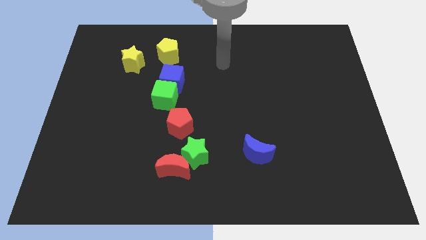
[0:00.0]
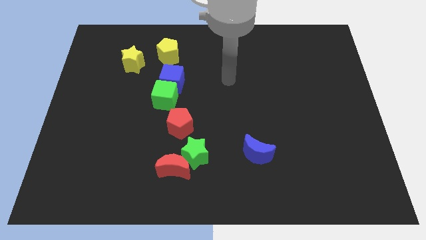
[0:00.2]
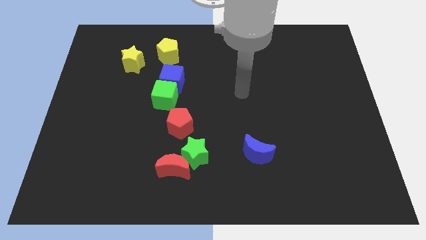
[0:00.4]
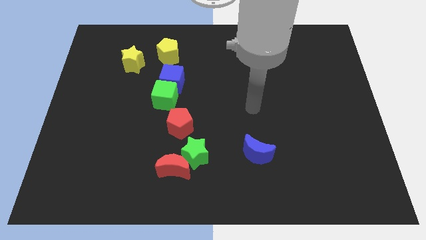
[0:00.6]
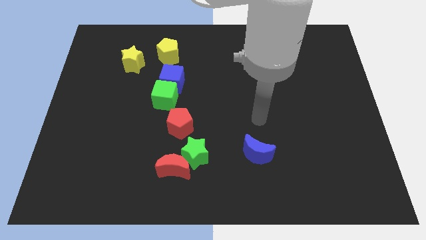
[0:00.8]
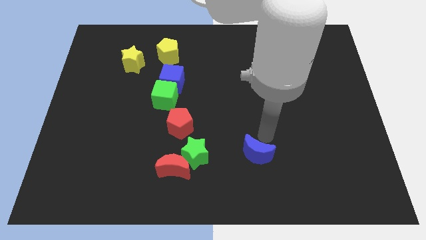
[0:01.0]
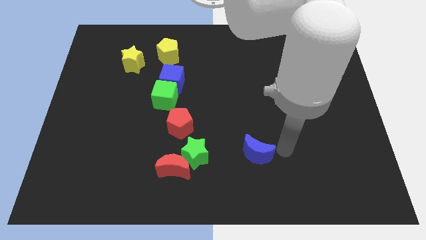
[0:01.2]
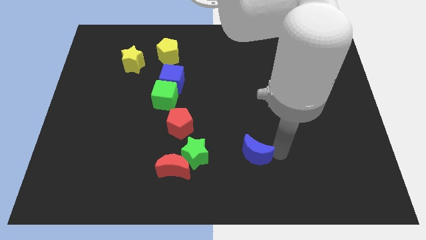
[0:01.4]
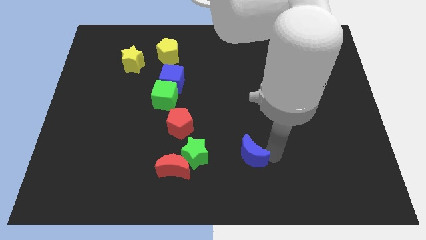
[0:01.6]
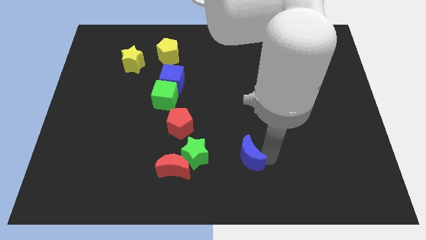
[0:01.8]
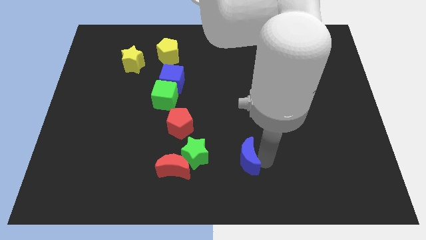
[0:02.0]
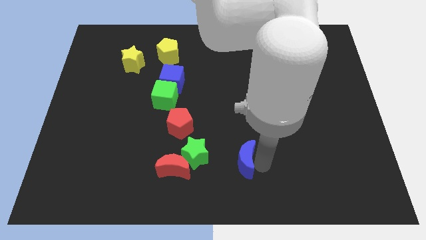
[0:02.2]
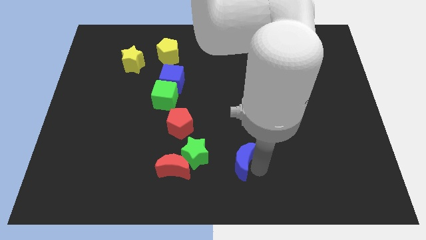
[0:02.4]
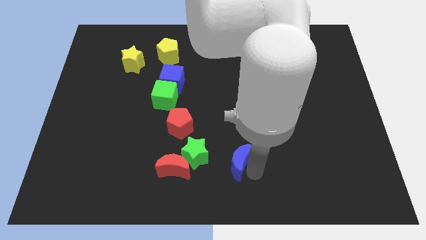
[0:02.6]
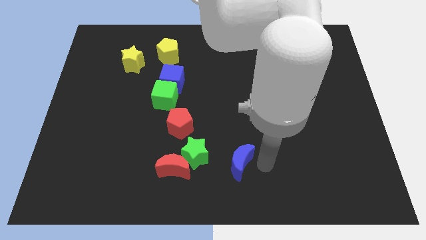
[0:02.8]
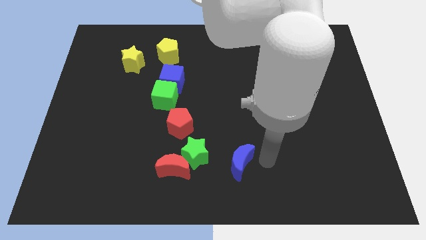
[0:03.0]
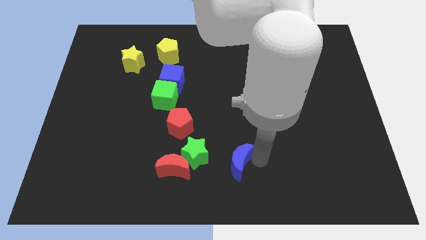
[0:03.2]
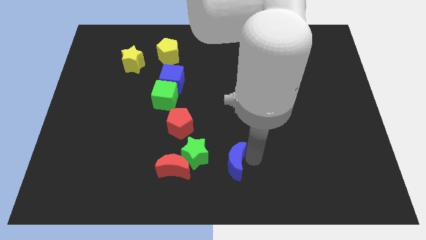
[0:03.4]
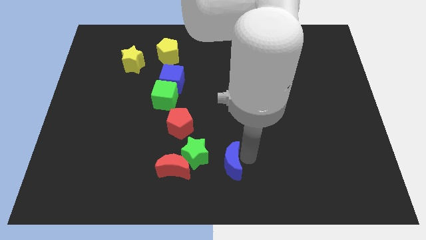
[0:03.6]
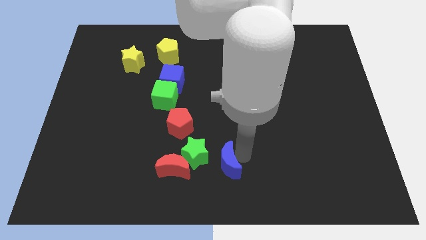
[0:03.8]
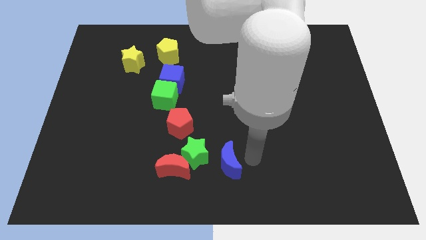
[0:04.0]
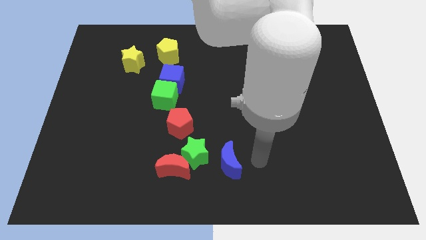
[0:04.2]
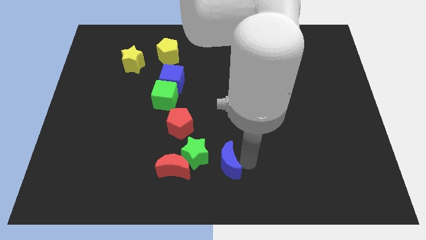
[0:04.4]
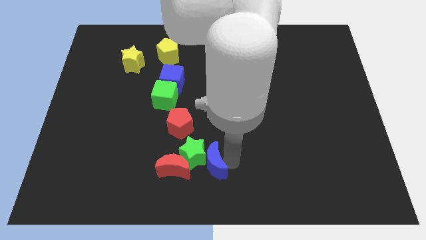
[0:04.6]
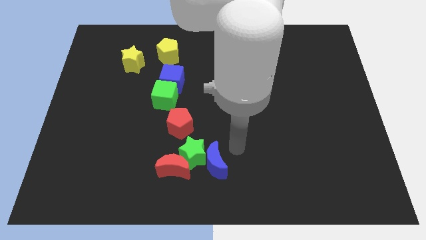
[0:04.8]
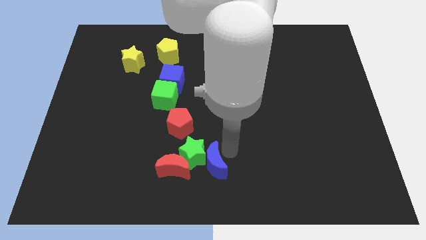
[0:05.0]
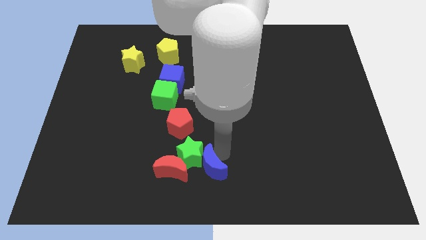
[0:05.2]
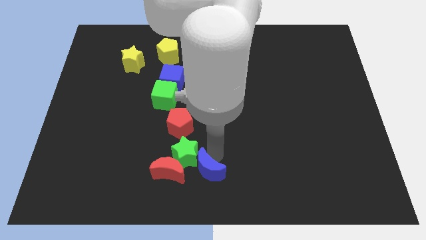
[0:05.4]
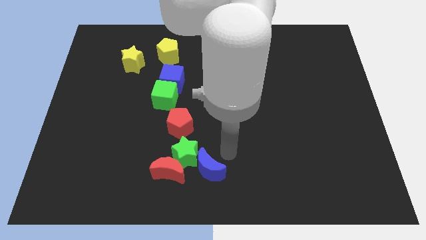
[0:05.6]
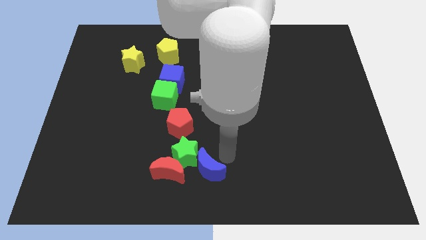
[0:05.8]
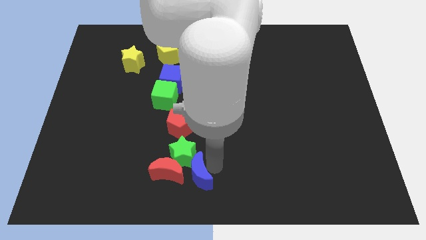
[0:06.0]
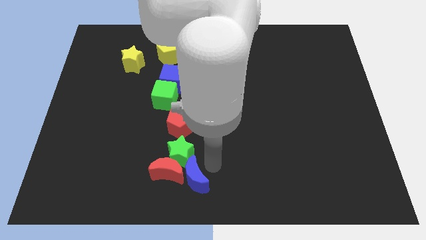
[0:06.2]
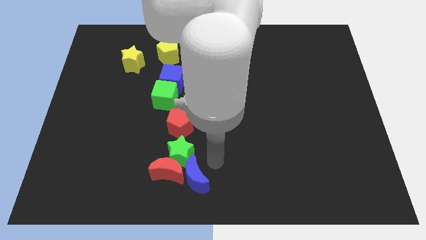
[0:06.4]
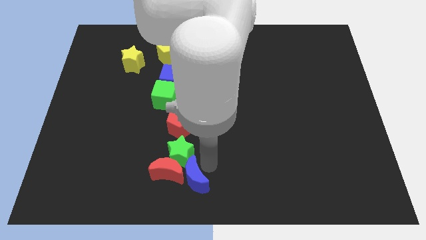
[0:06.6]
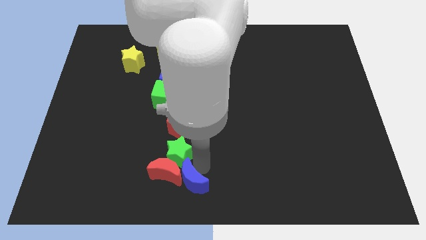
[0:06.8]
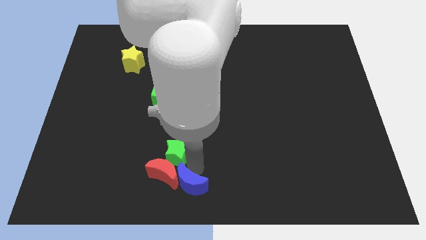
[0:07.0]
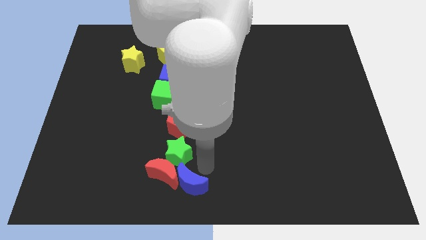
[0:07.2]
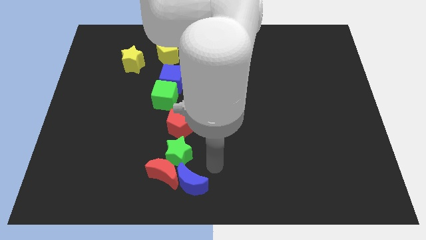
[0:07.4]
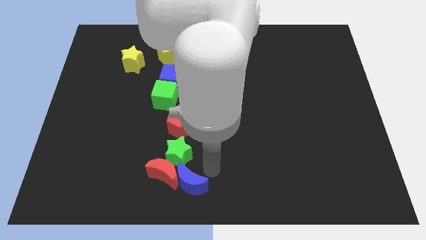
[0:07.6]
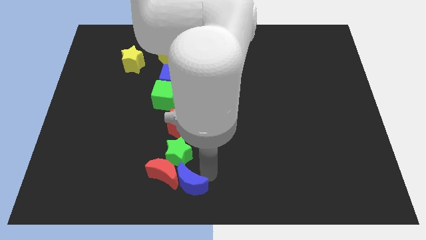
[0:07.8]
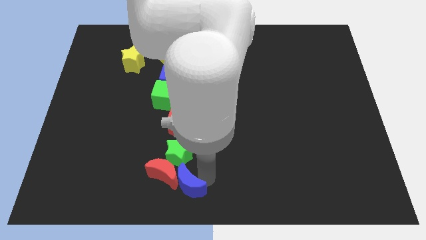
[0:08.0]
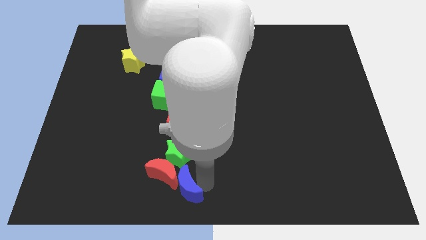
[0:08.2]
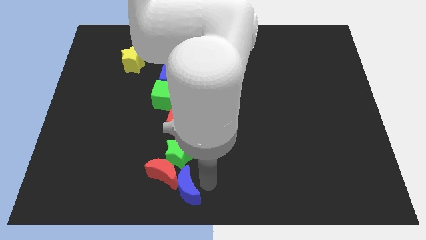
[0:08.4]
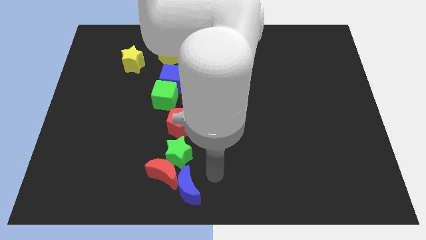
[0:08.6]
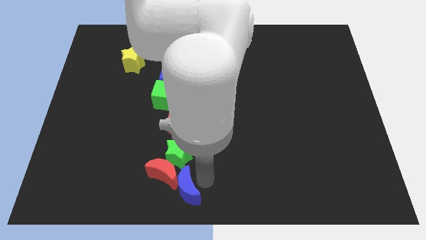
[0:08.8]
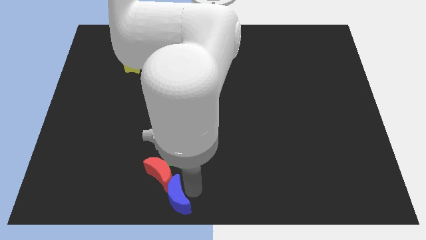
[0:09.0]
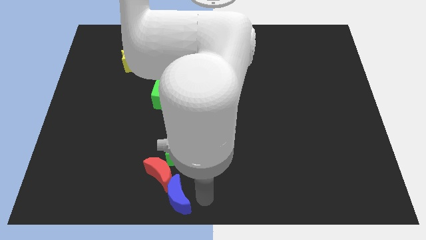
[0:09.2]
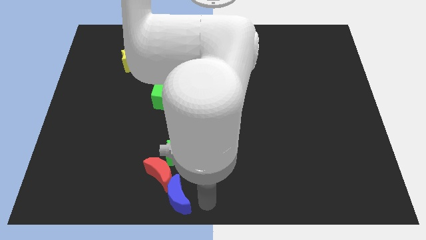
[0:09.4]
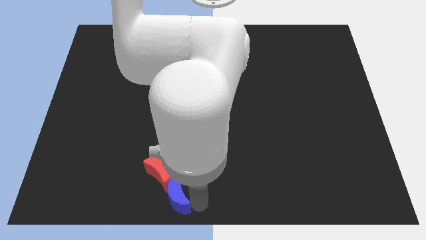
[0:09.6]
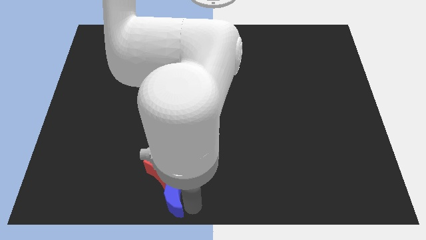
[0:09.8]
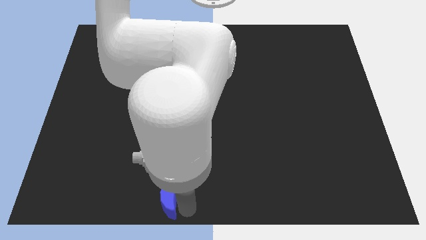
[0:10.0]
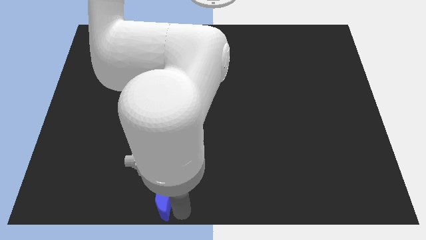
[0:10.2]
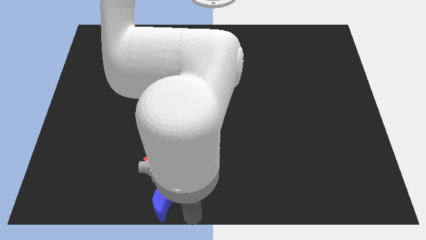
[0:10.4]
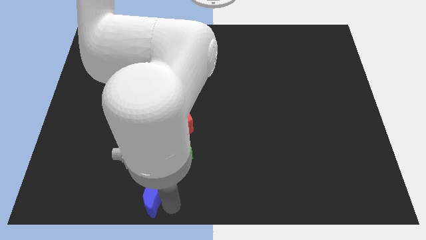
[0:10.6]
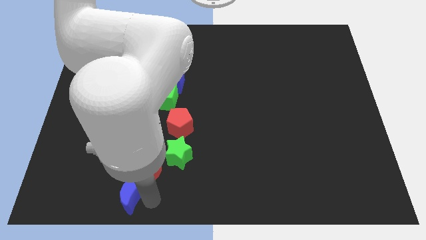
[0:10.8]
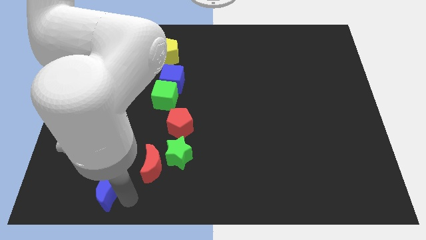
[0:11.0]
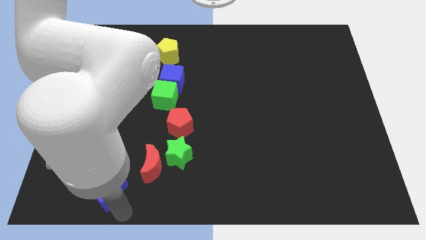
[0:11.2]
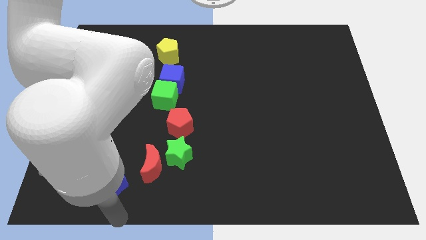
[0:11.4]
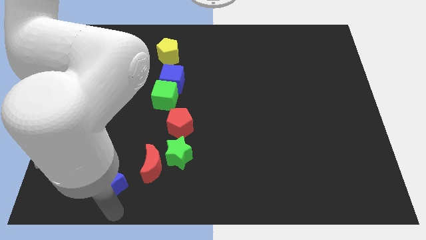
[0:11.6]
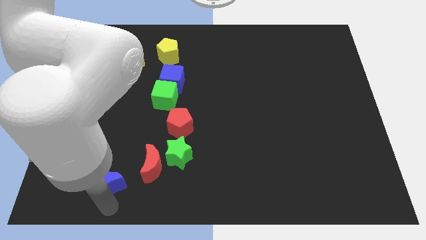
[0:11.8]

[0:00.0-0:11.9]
push the blue moon left of the red moon

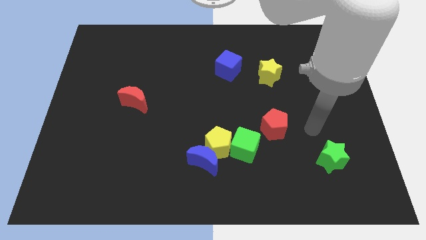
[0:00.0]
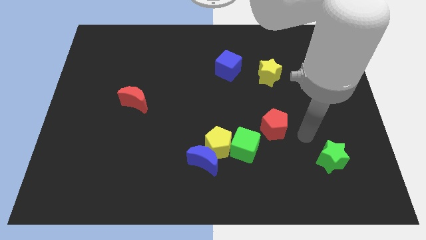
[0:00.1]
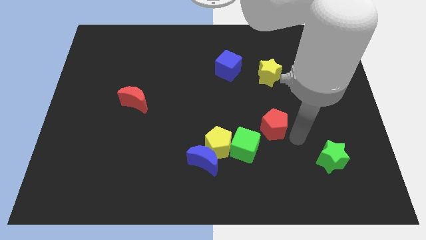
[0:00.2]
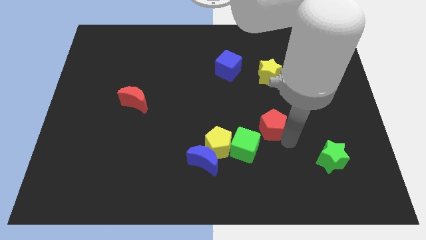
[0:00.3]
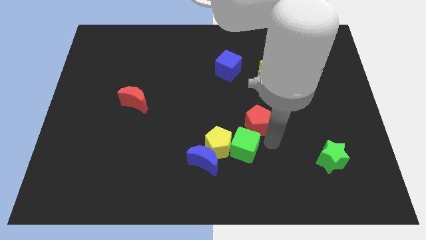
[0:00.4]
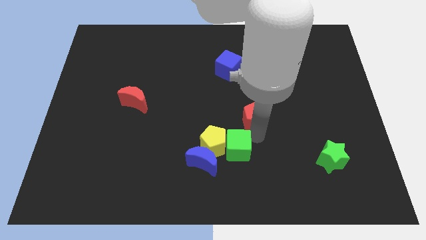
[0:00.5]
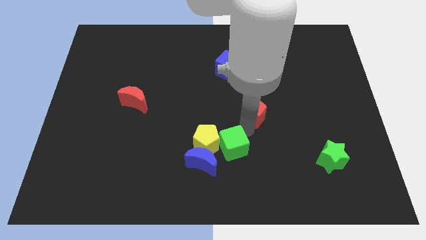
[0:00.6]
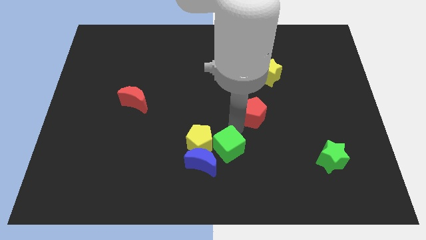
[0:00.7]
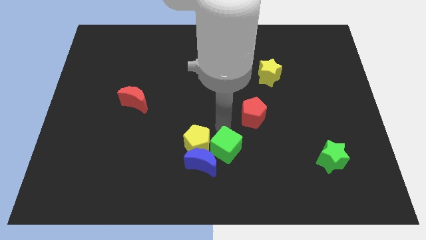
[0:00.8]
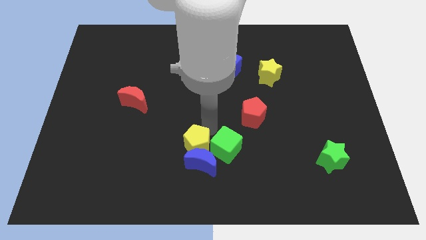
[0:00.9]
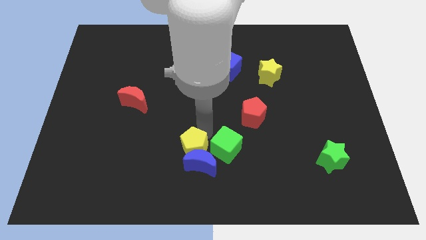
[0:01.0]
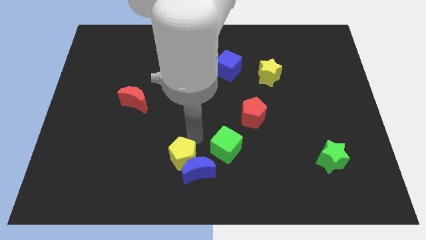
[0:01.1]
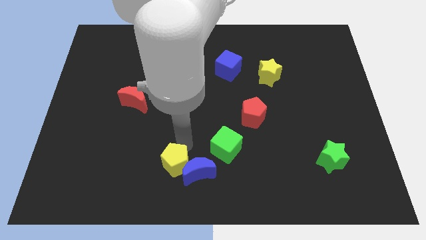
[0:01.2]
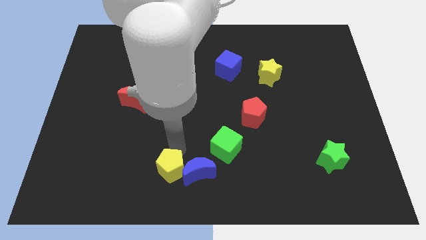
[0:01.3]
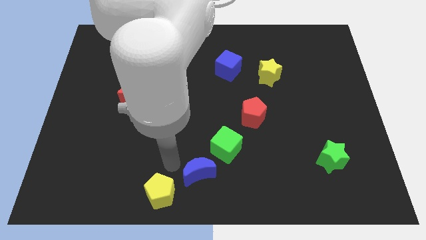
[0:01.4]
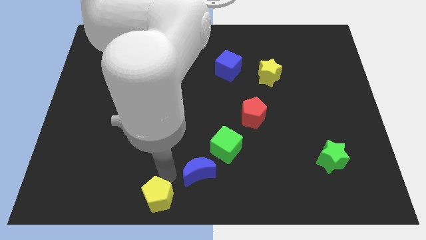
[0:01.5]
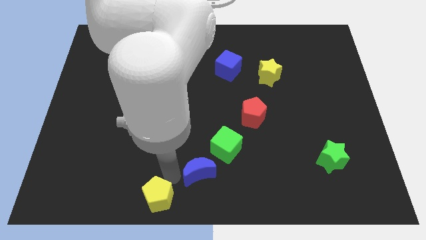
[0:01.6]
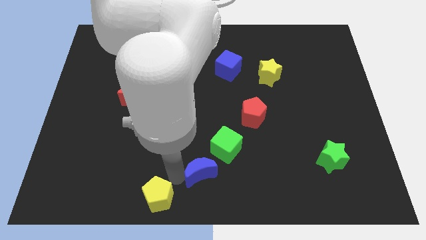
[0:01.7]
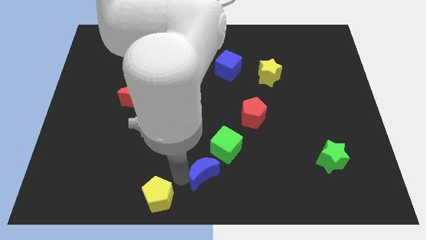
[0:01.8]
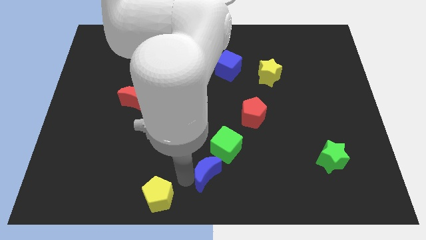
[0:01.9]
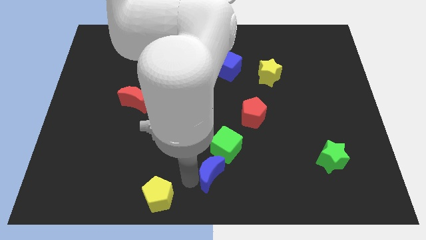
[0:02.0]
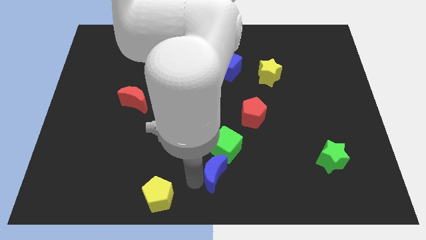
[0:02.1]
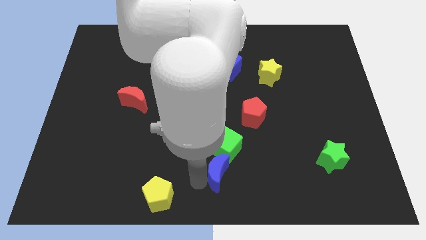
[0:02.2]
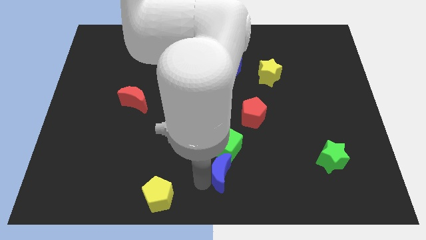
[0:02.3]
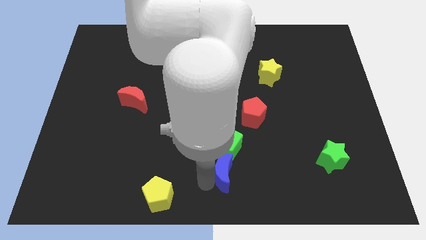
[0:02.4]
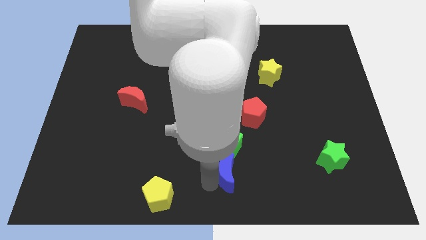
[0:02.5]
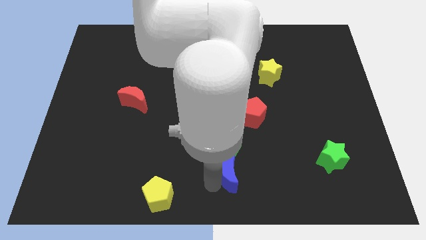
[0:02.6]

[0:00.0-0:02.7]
move the blue moon to the bottom right of the green cube
